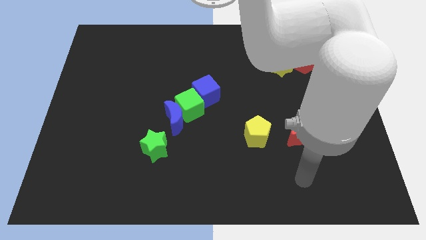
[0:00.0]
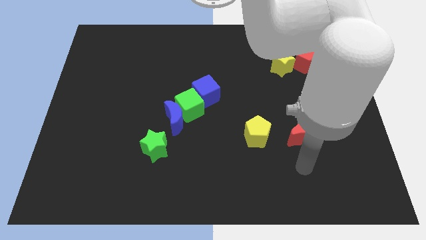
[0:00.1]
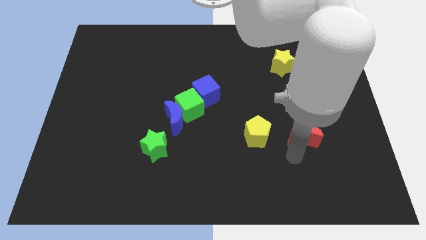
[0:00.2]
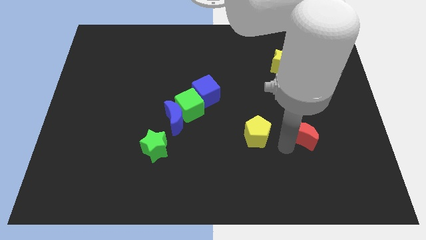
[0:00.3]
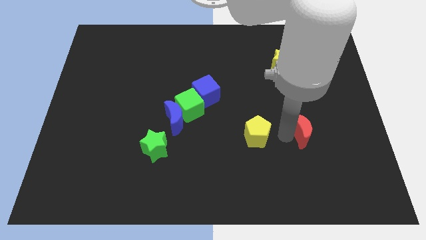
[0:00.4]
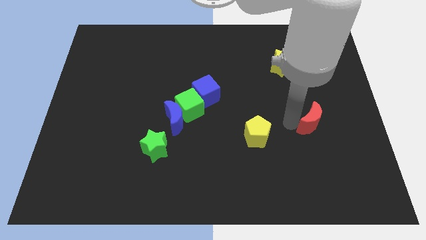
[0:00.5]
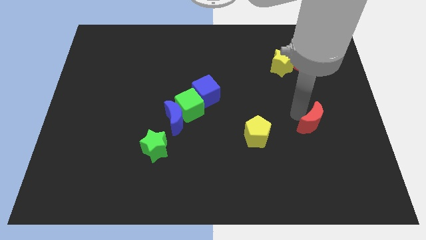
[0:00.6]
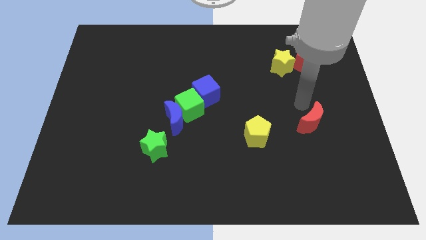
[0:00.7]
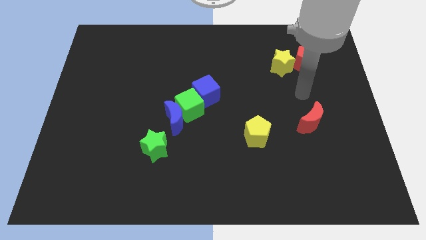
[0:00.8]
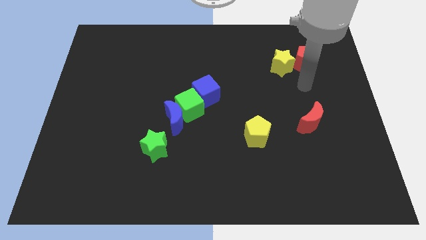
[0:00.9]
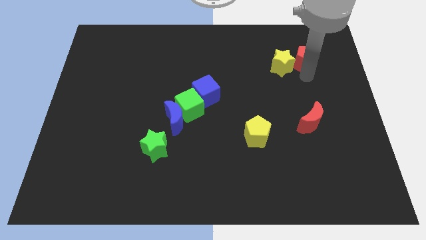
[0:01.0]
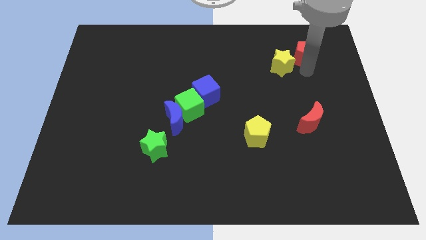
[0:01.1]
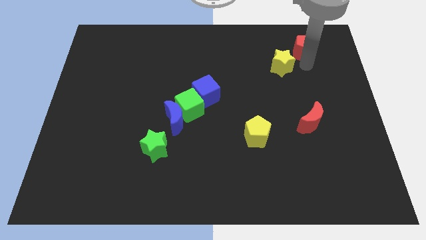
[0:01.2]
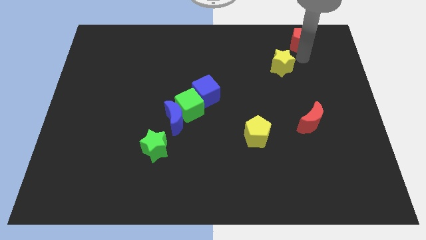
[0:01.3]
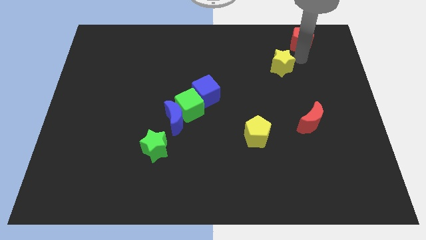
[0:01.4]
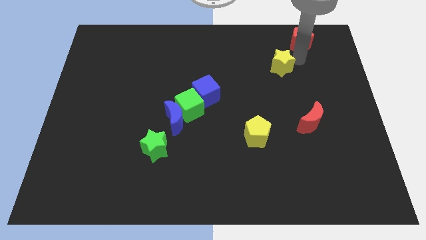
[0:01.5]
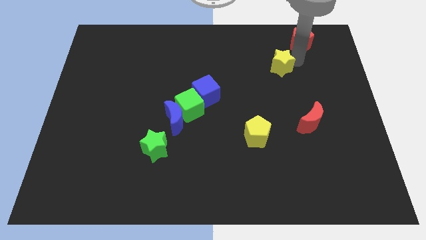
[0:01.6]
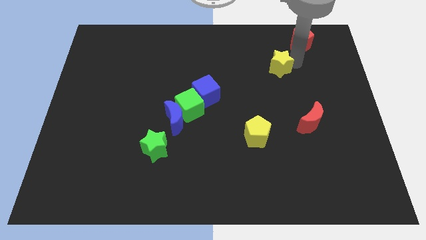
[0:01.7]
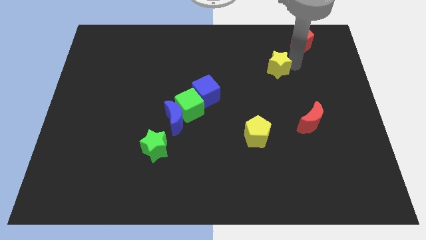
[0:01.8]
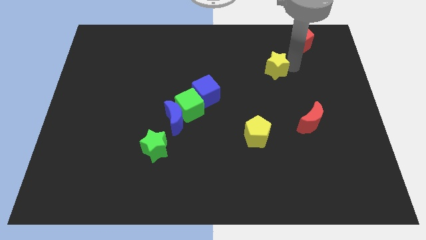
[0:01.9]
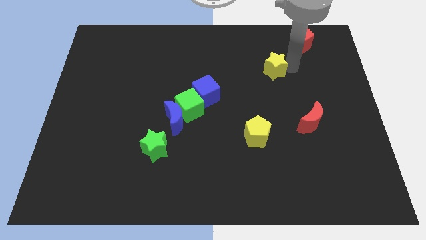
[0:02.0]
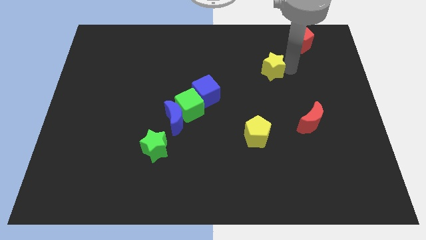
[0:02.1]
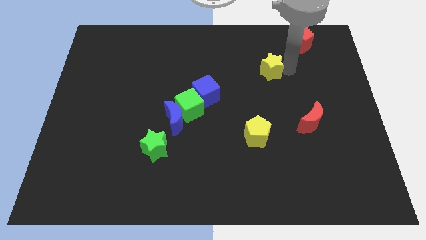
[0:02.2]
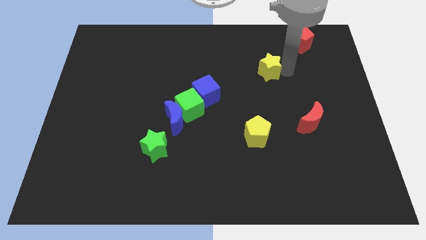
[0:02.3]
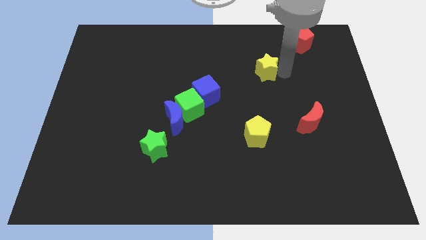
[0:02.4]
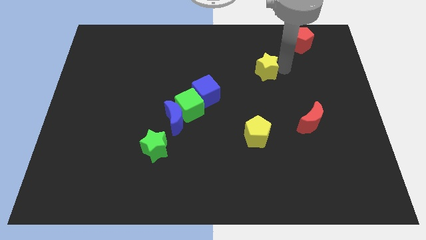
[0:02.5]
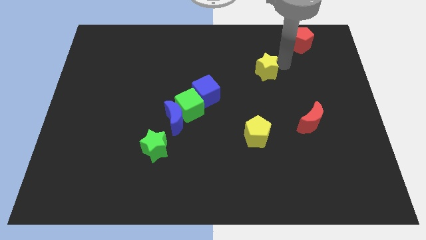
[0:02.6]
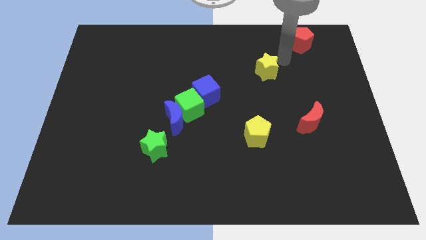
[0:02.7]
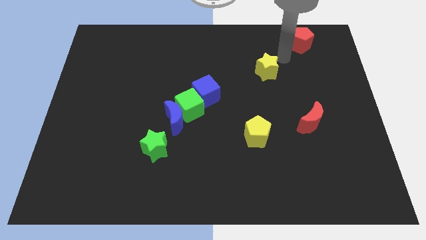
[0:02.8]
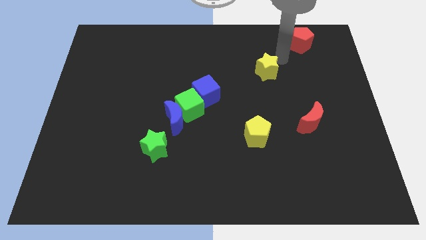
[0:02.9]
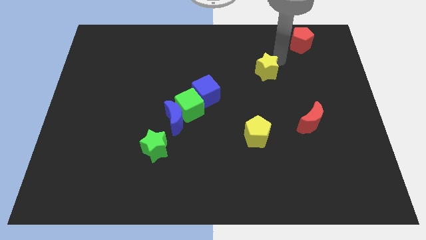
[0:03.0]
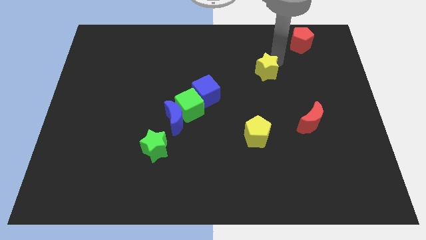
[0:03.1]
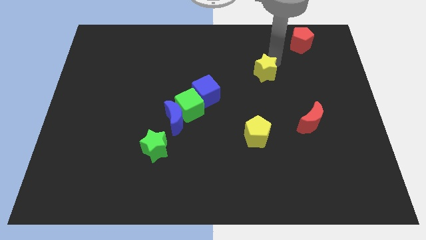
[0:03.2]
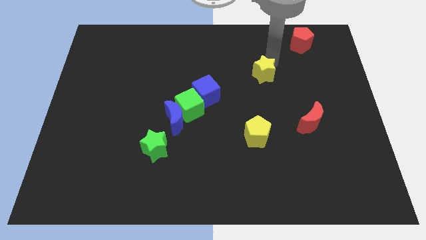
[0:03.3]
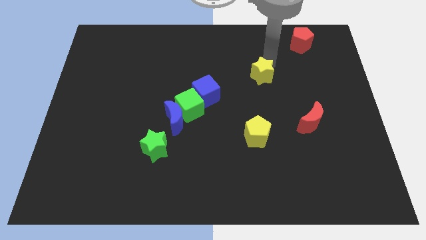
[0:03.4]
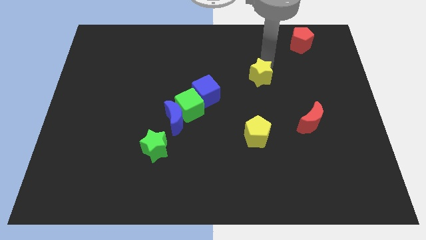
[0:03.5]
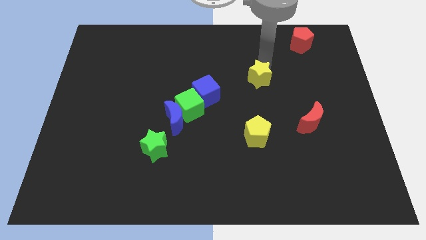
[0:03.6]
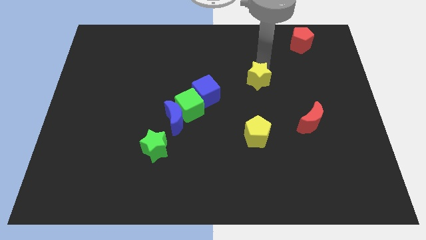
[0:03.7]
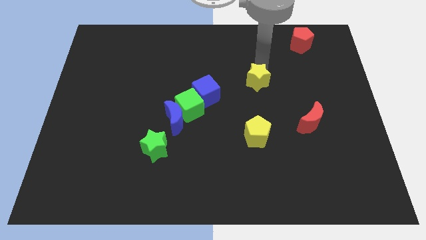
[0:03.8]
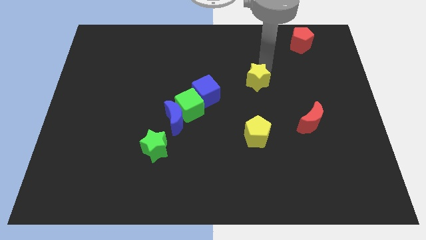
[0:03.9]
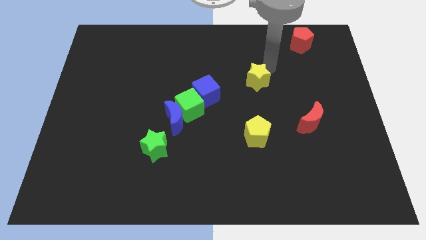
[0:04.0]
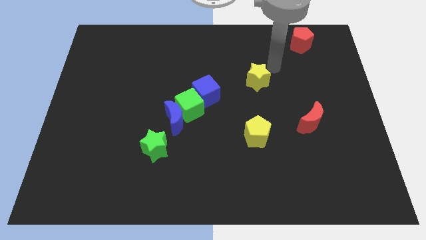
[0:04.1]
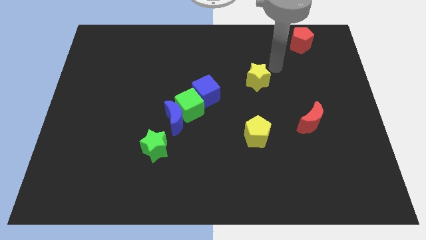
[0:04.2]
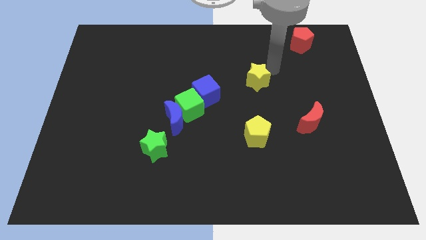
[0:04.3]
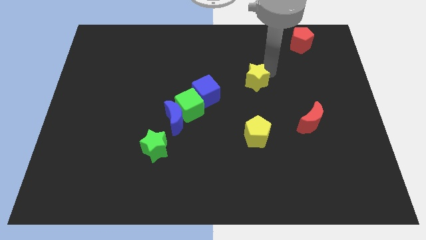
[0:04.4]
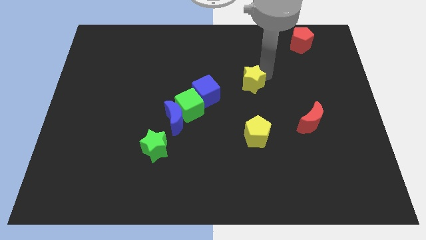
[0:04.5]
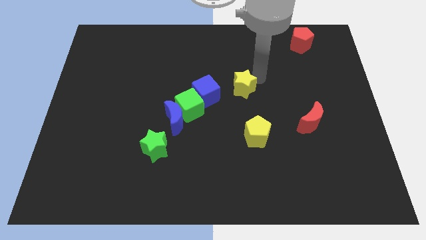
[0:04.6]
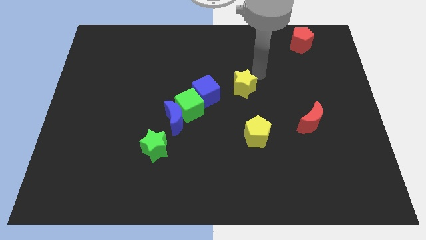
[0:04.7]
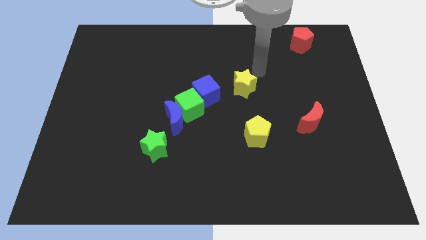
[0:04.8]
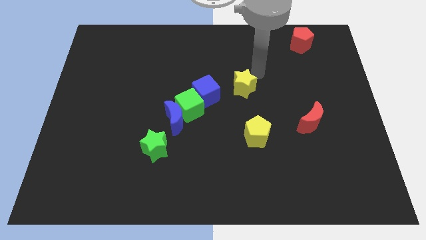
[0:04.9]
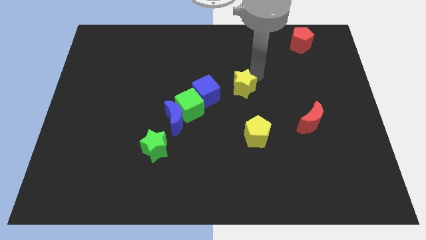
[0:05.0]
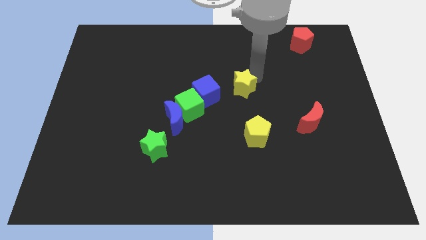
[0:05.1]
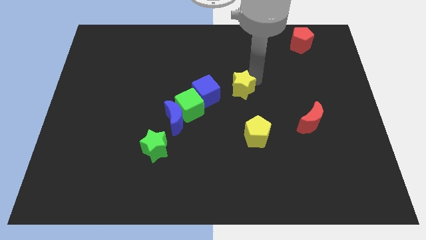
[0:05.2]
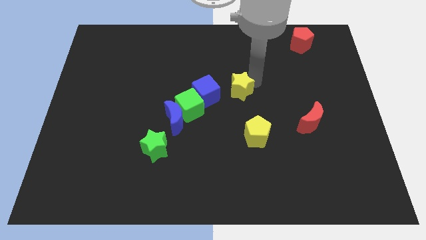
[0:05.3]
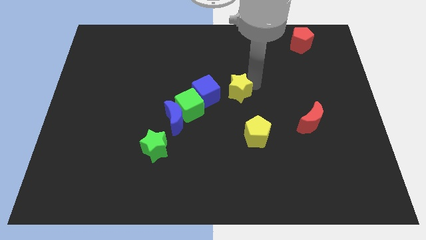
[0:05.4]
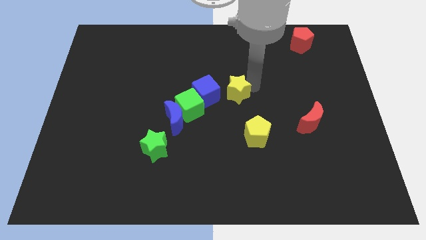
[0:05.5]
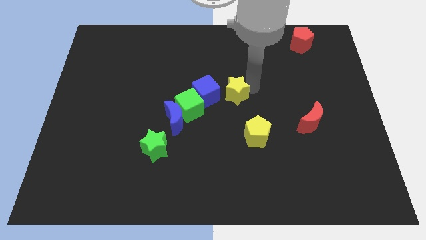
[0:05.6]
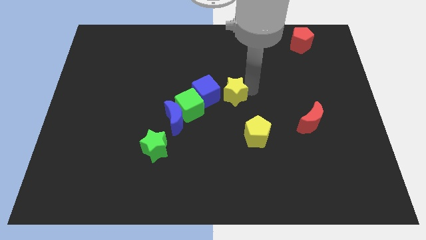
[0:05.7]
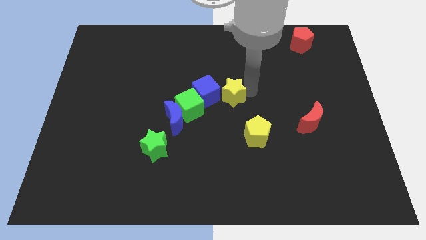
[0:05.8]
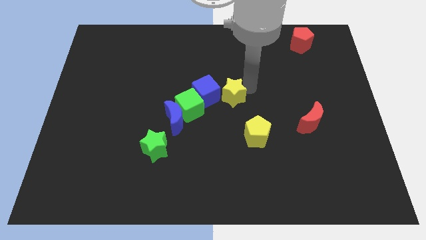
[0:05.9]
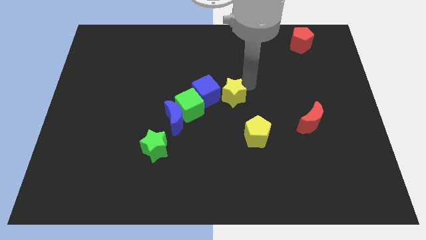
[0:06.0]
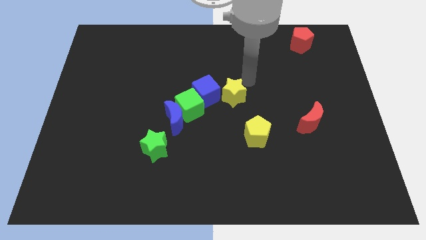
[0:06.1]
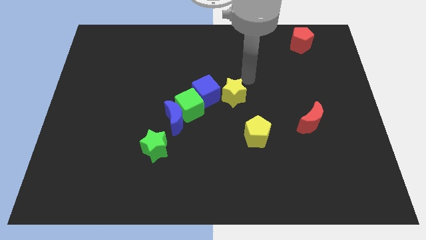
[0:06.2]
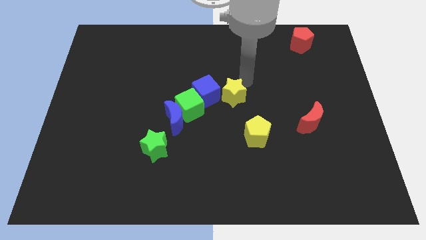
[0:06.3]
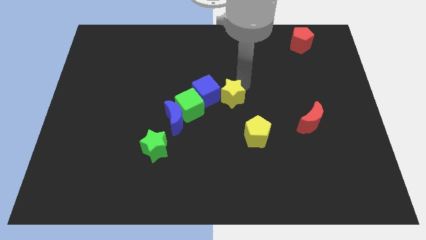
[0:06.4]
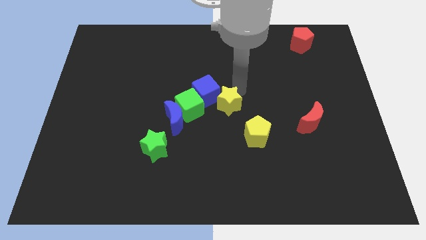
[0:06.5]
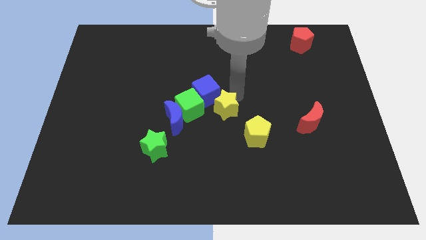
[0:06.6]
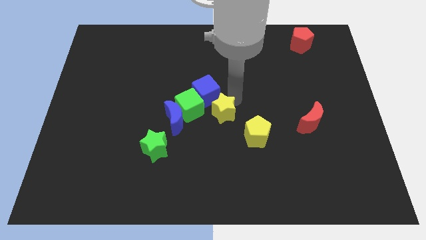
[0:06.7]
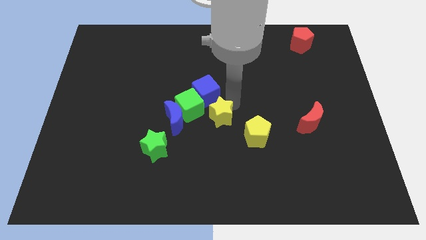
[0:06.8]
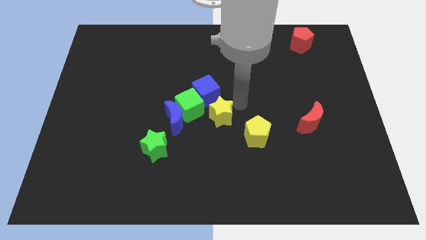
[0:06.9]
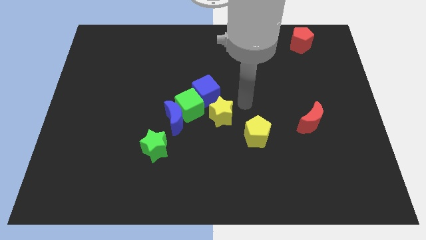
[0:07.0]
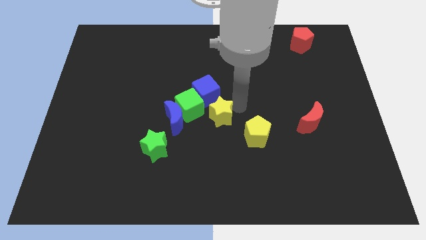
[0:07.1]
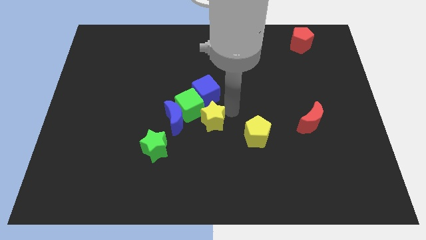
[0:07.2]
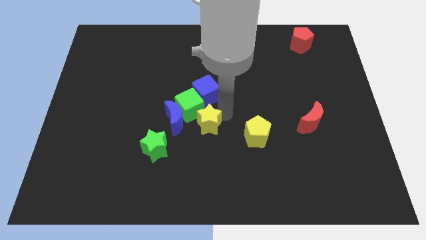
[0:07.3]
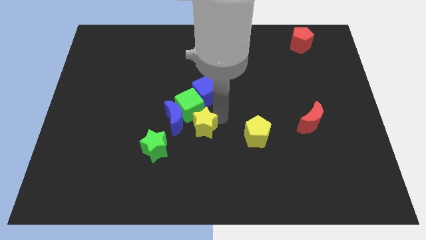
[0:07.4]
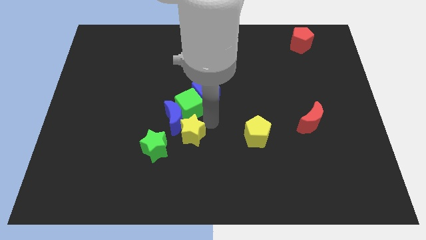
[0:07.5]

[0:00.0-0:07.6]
slide the yellow star to the bottom side of the blue moon

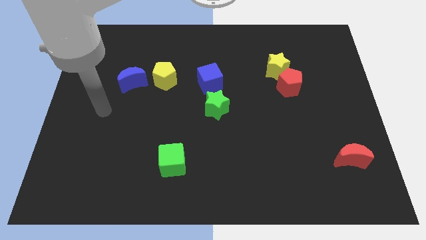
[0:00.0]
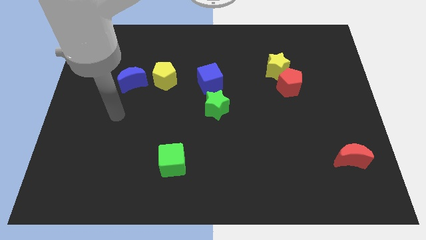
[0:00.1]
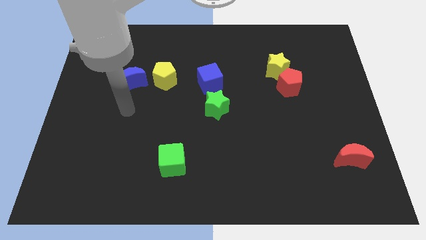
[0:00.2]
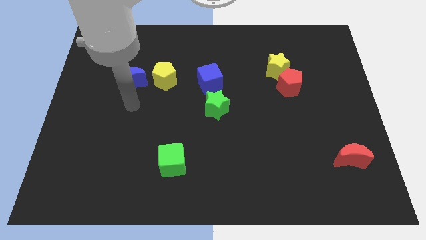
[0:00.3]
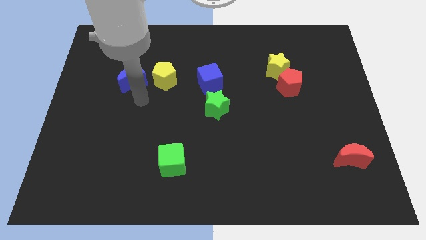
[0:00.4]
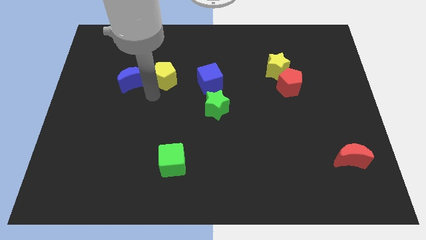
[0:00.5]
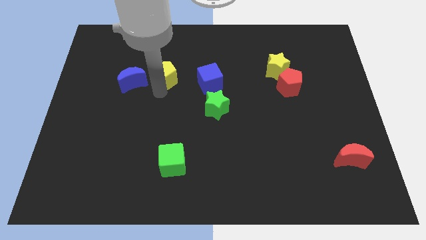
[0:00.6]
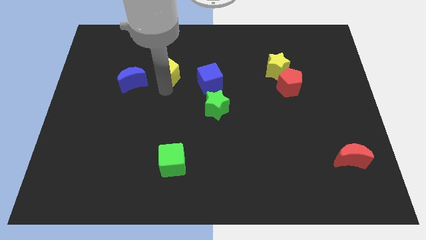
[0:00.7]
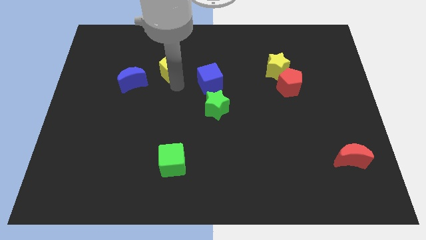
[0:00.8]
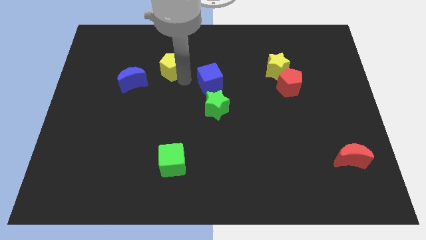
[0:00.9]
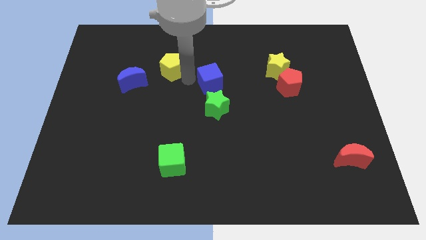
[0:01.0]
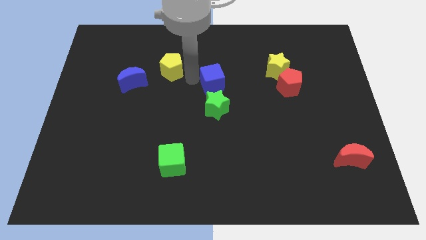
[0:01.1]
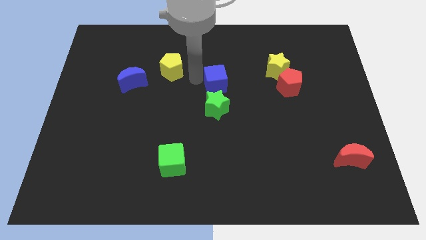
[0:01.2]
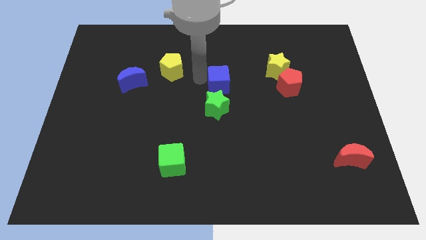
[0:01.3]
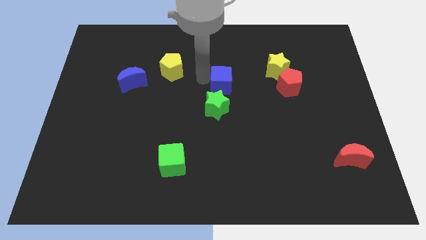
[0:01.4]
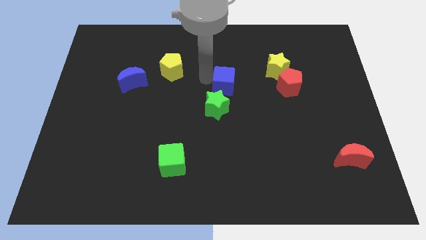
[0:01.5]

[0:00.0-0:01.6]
move the blue cube to the left of the red pentagon
